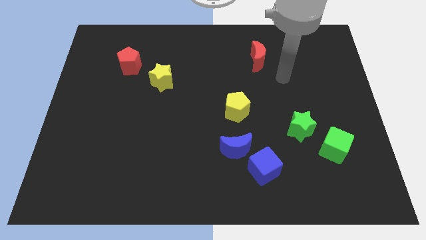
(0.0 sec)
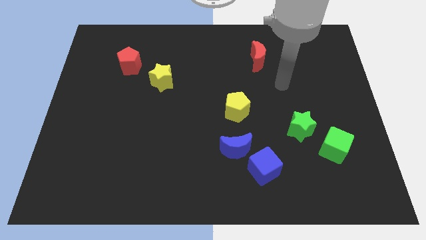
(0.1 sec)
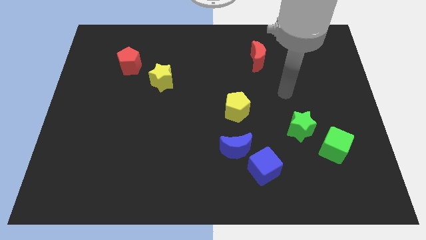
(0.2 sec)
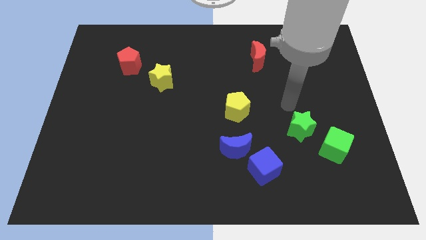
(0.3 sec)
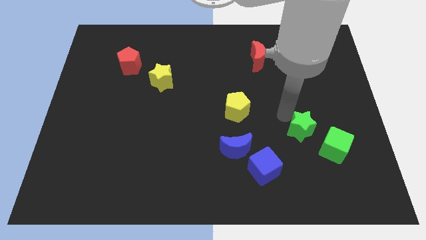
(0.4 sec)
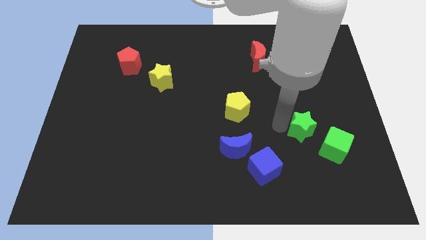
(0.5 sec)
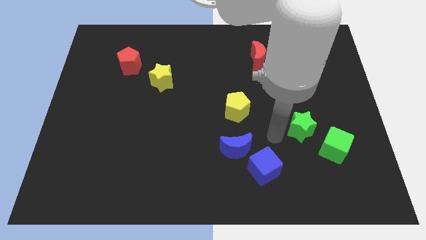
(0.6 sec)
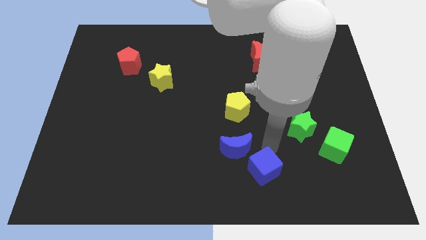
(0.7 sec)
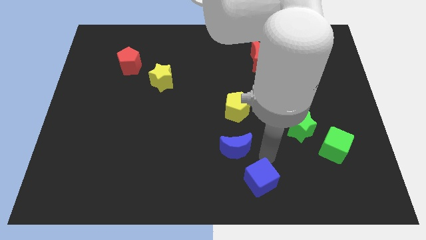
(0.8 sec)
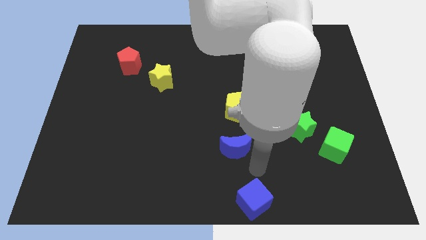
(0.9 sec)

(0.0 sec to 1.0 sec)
separate the blue moon from the blue cube

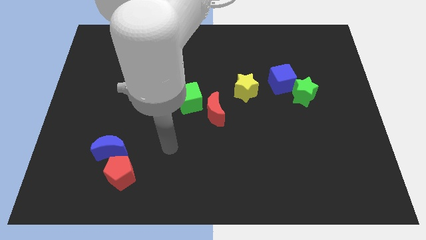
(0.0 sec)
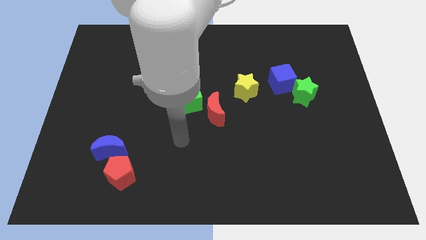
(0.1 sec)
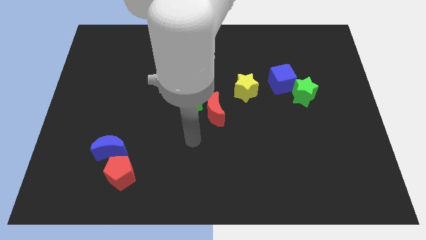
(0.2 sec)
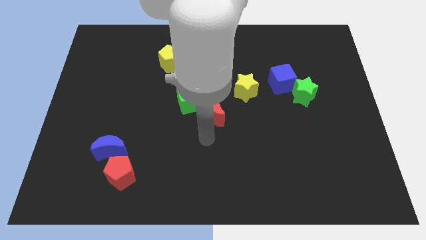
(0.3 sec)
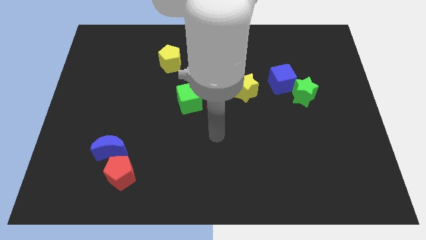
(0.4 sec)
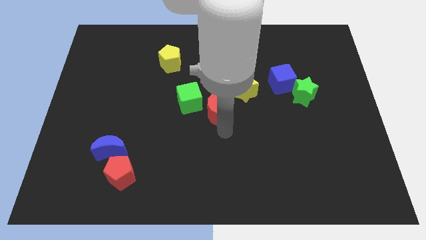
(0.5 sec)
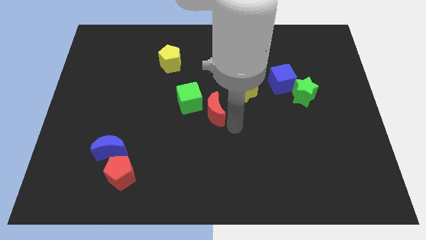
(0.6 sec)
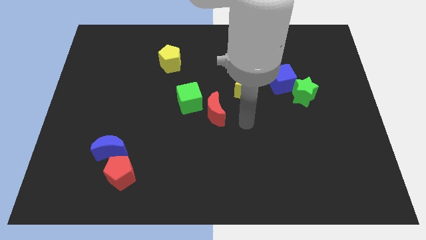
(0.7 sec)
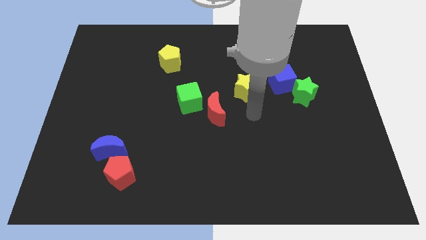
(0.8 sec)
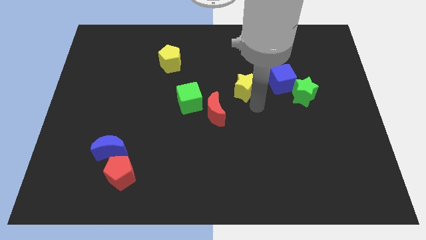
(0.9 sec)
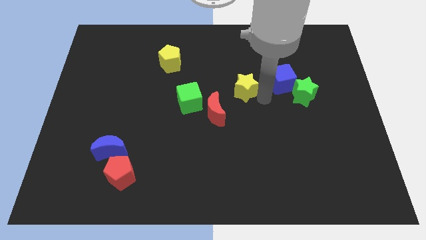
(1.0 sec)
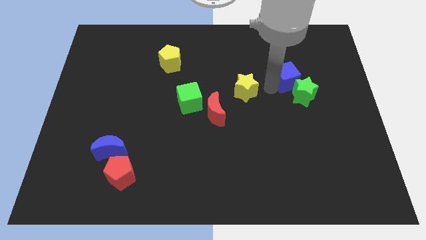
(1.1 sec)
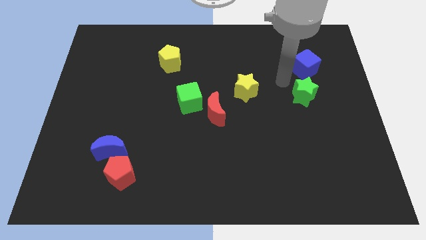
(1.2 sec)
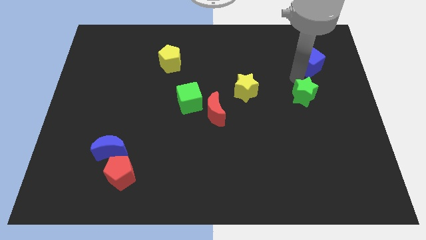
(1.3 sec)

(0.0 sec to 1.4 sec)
move the green star away from the blue cube

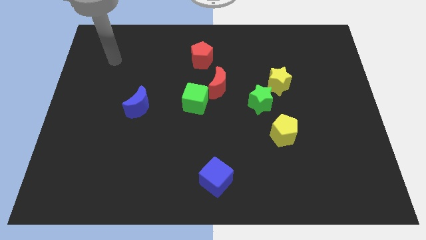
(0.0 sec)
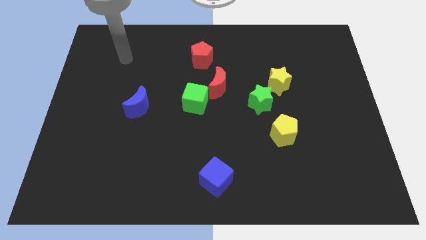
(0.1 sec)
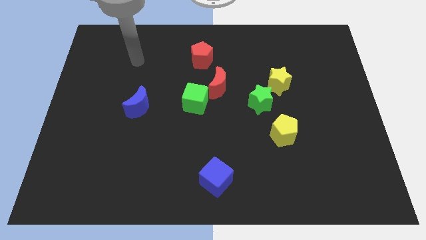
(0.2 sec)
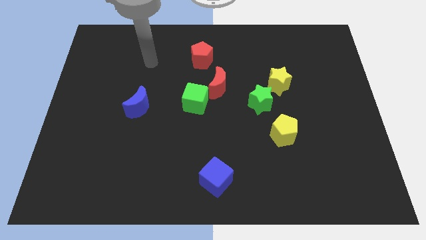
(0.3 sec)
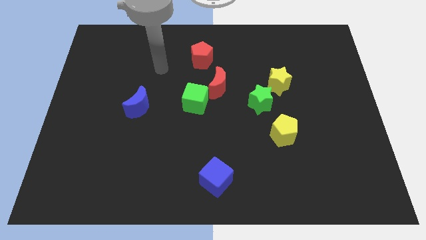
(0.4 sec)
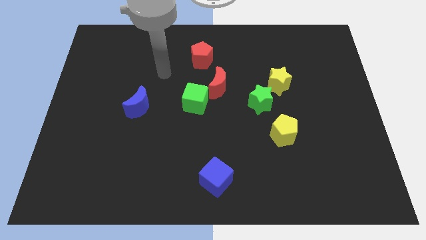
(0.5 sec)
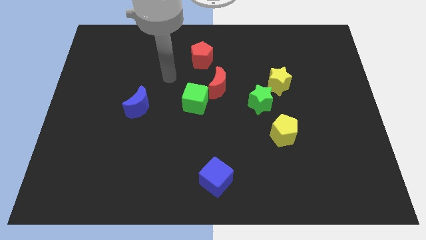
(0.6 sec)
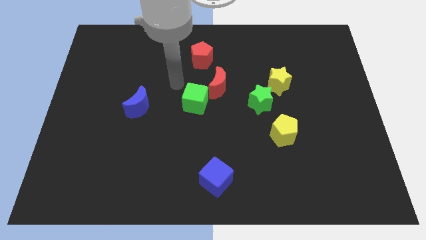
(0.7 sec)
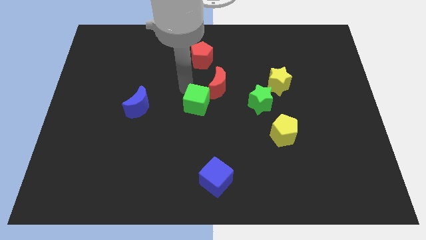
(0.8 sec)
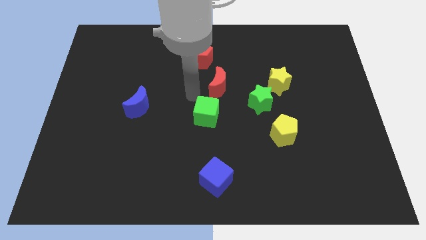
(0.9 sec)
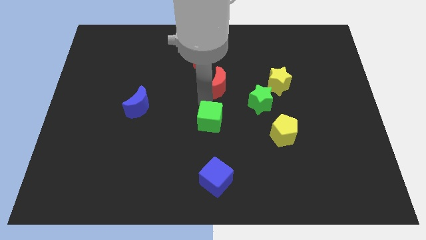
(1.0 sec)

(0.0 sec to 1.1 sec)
separate the red moon from the green cube

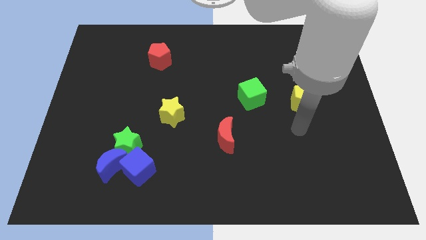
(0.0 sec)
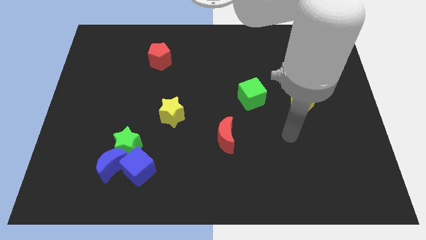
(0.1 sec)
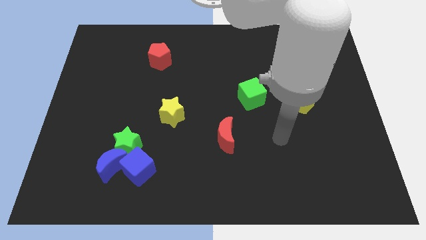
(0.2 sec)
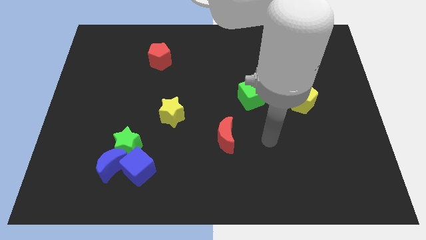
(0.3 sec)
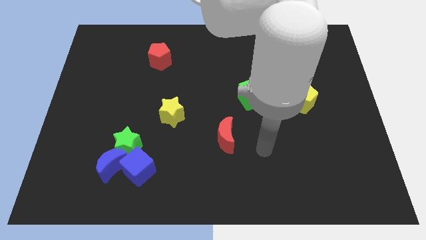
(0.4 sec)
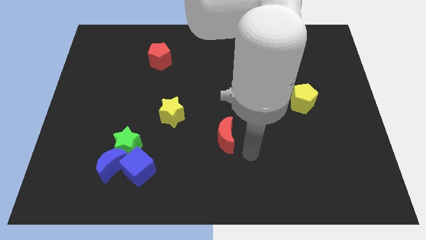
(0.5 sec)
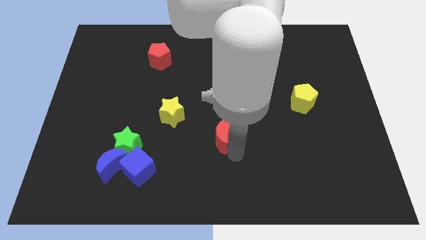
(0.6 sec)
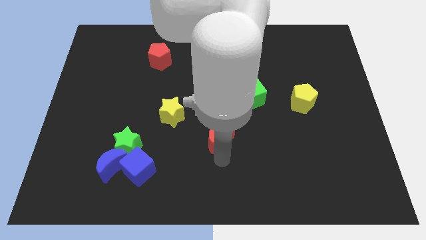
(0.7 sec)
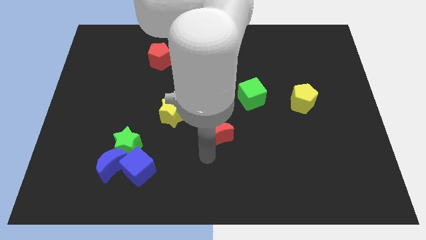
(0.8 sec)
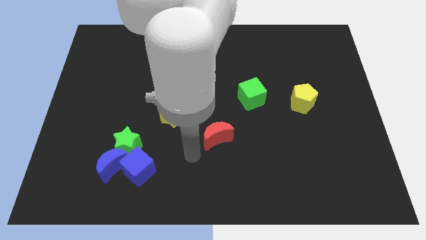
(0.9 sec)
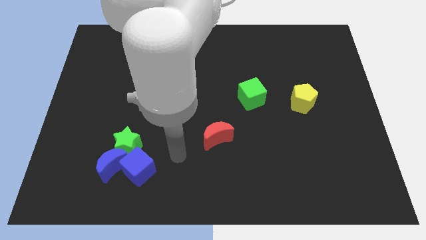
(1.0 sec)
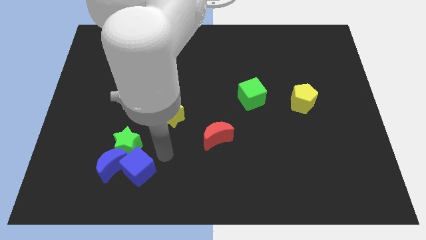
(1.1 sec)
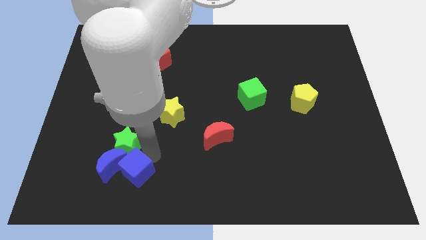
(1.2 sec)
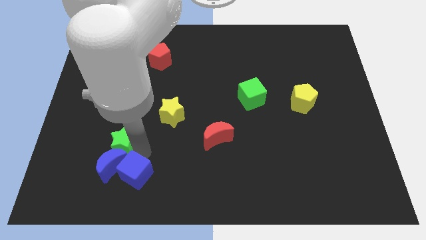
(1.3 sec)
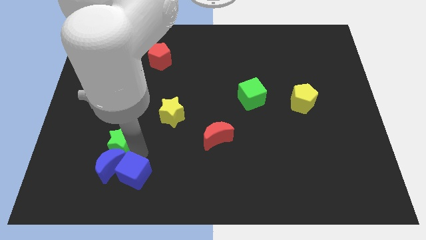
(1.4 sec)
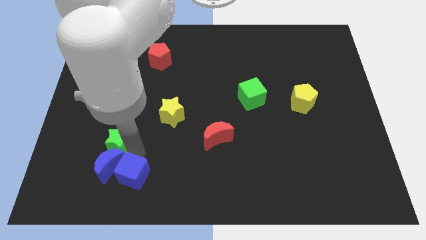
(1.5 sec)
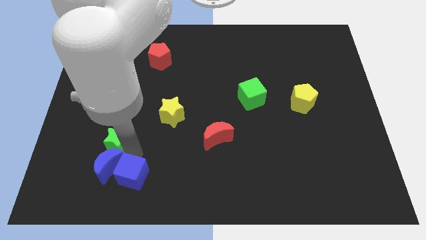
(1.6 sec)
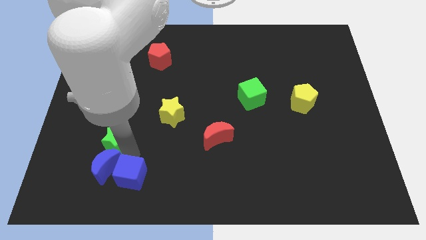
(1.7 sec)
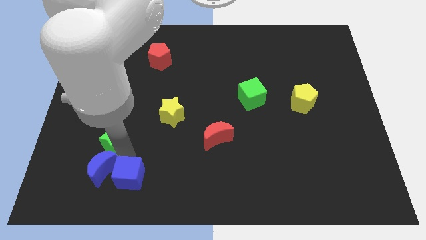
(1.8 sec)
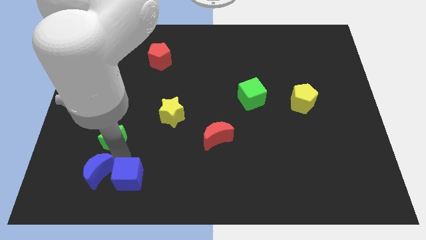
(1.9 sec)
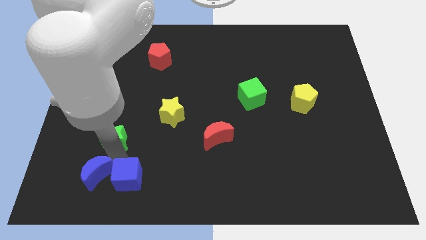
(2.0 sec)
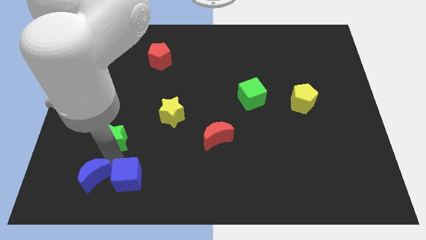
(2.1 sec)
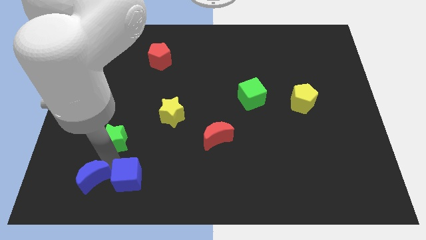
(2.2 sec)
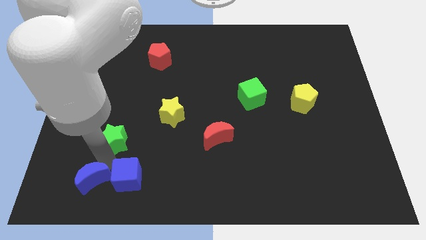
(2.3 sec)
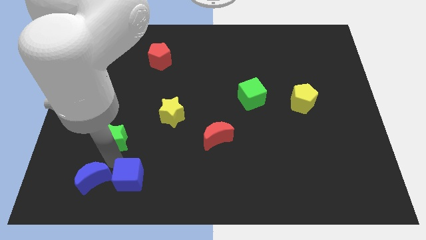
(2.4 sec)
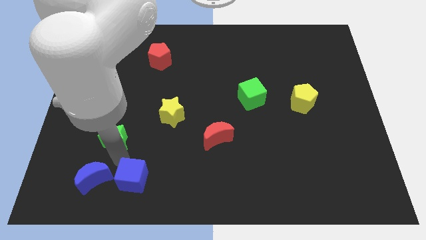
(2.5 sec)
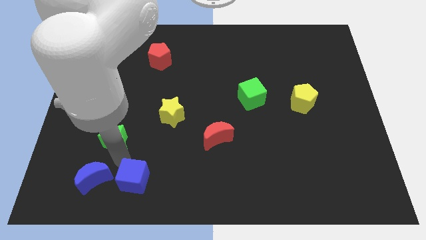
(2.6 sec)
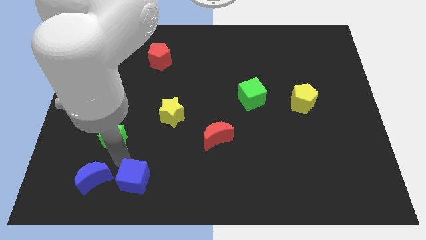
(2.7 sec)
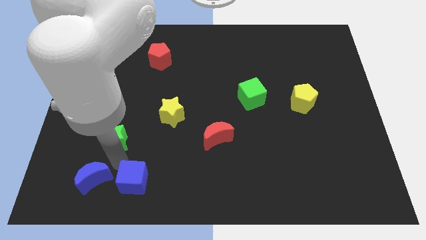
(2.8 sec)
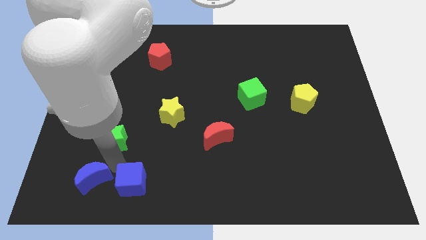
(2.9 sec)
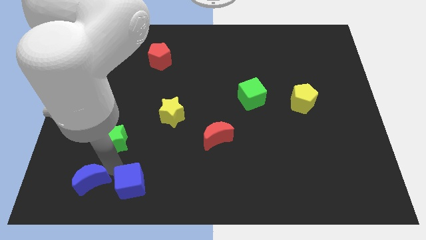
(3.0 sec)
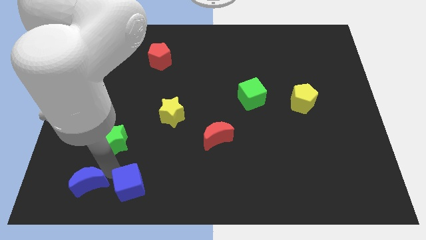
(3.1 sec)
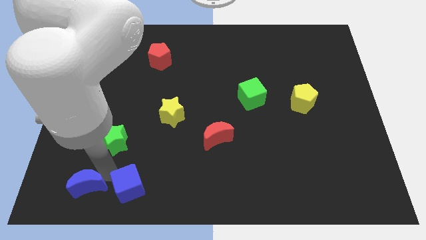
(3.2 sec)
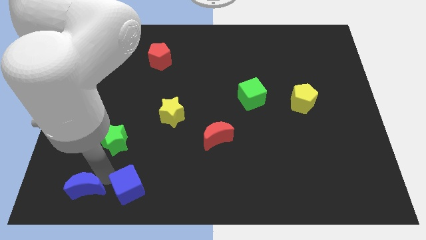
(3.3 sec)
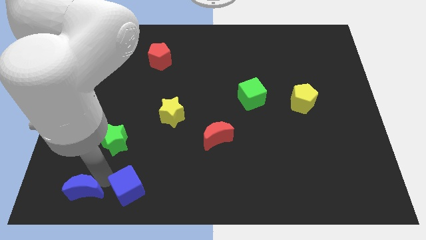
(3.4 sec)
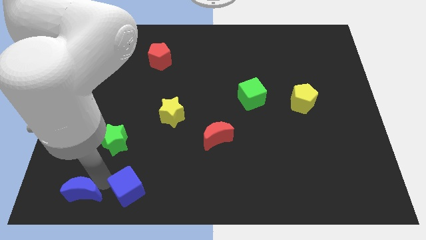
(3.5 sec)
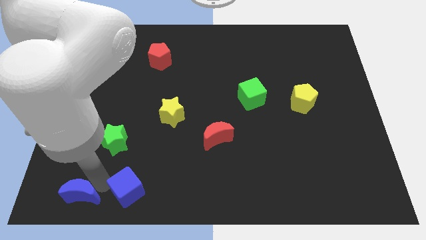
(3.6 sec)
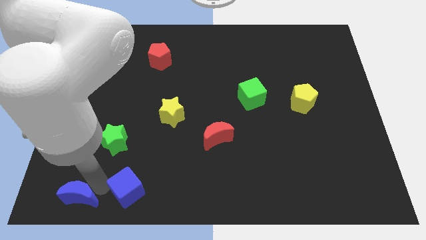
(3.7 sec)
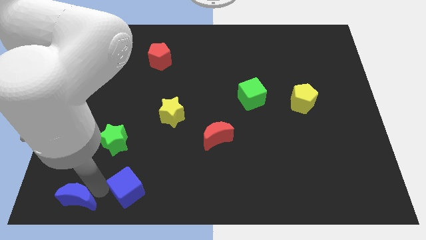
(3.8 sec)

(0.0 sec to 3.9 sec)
move the blue moon away from the green star and blue cube

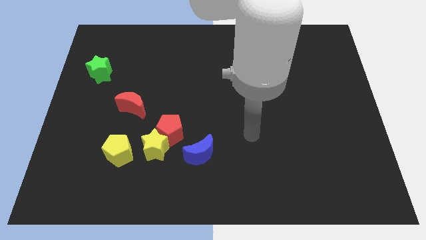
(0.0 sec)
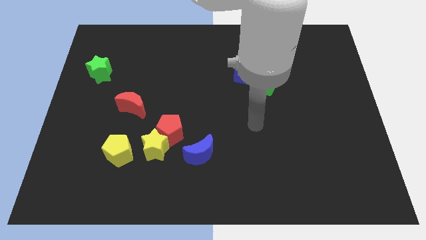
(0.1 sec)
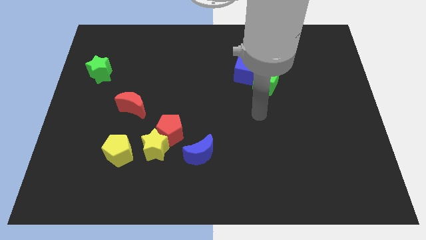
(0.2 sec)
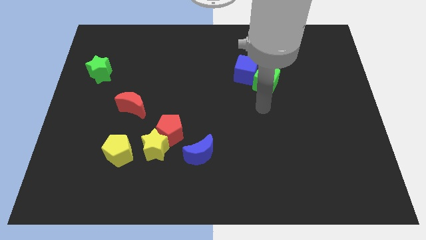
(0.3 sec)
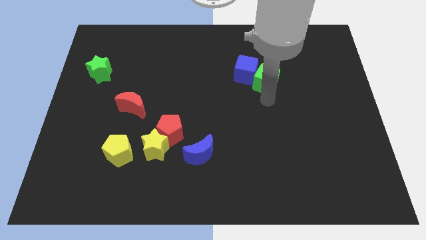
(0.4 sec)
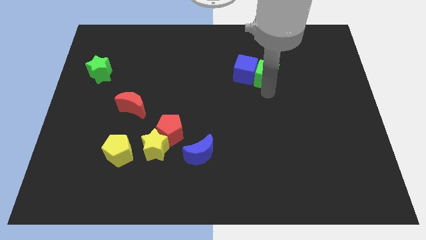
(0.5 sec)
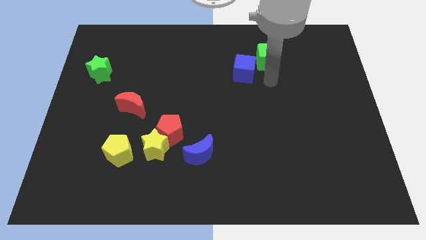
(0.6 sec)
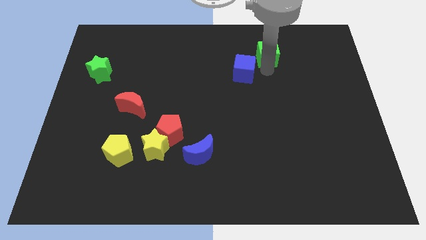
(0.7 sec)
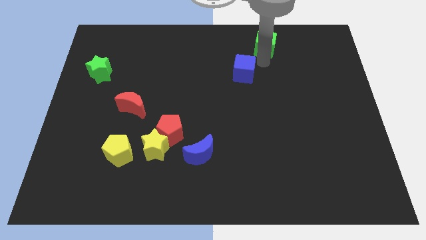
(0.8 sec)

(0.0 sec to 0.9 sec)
pull the blue cube apart from the green cube

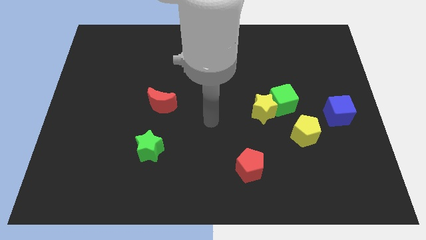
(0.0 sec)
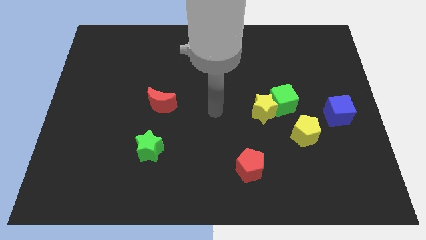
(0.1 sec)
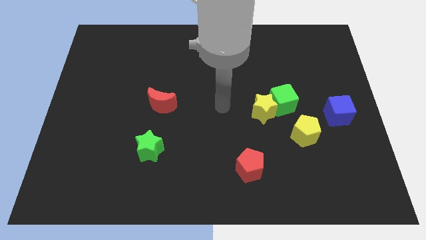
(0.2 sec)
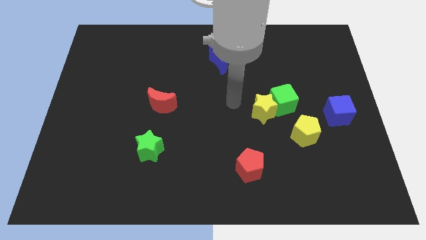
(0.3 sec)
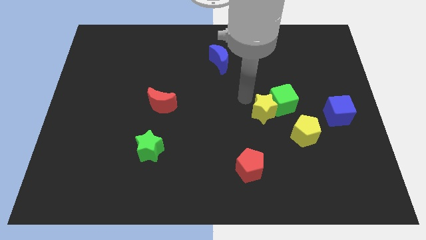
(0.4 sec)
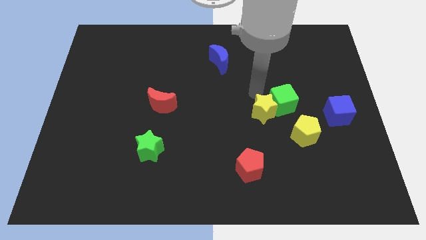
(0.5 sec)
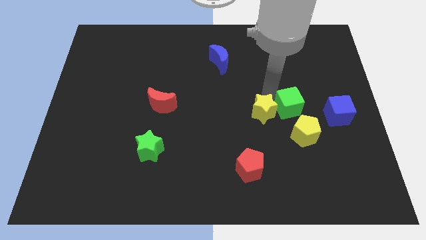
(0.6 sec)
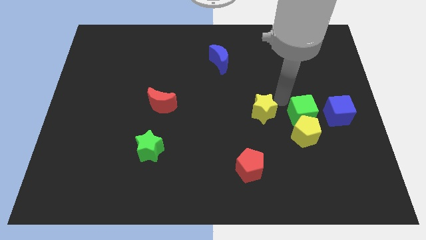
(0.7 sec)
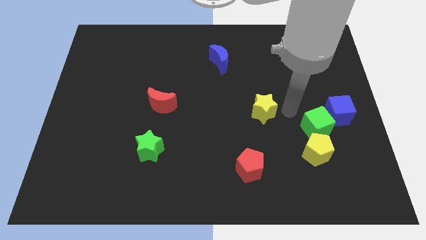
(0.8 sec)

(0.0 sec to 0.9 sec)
pull the yellow star apart from the green cube

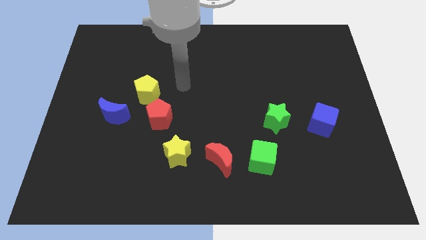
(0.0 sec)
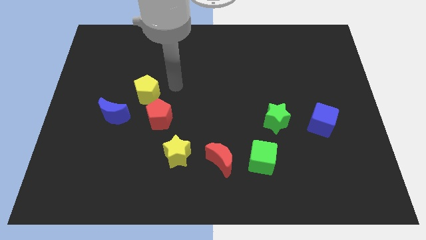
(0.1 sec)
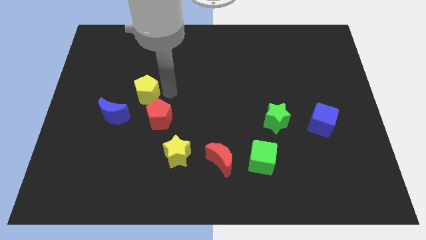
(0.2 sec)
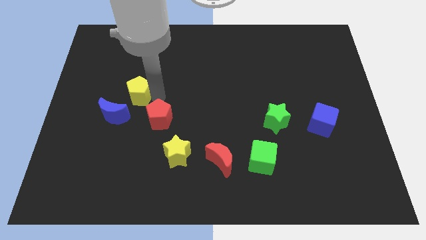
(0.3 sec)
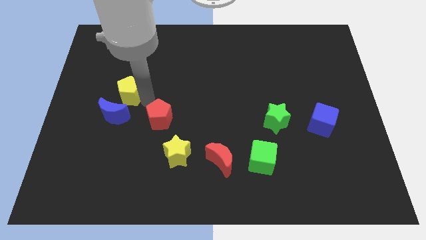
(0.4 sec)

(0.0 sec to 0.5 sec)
move the red pentagon away from the yellow pentagon
